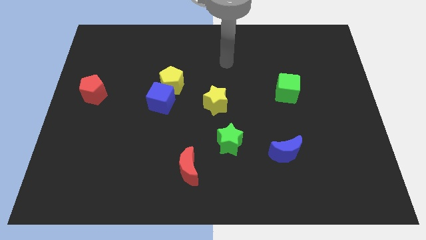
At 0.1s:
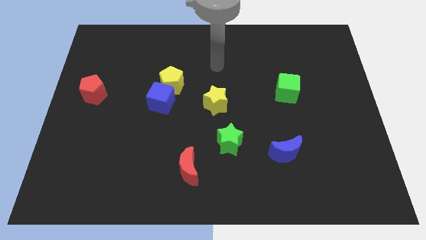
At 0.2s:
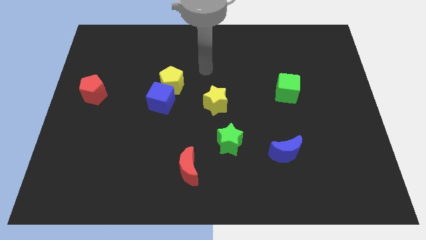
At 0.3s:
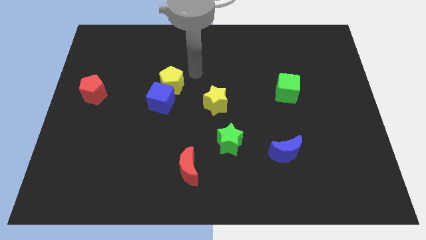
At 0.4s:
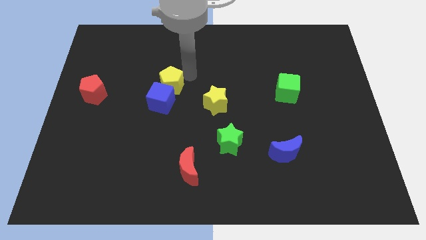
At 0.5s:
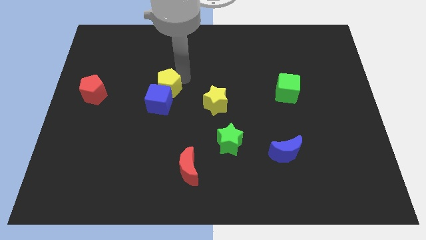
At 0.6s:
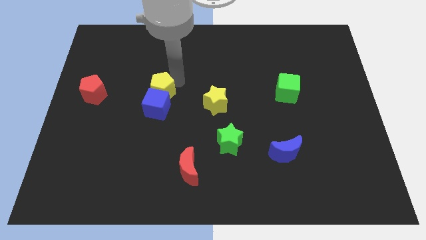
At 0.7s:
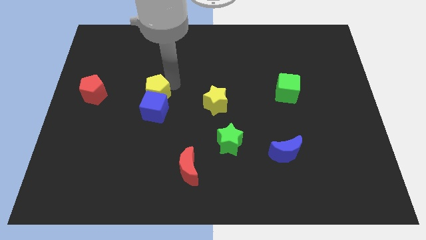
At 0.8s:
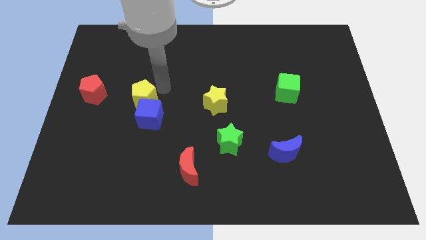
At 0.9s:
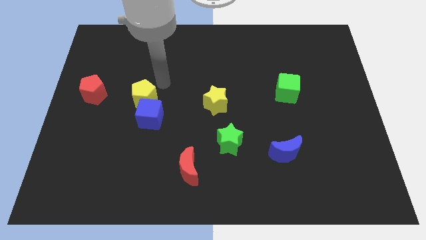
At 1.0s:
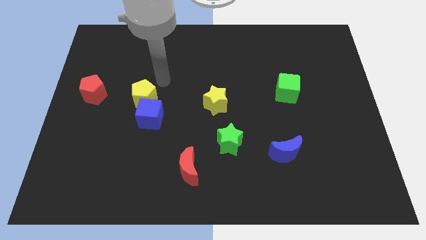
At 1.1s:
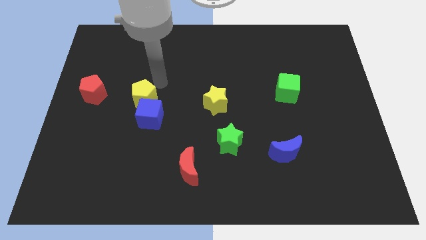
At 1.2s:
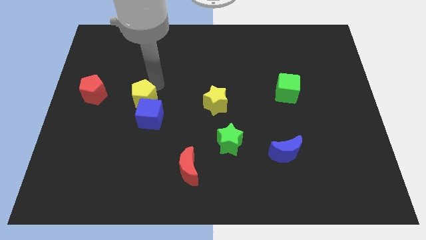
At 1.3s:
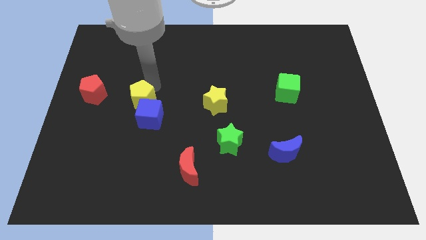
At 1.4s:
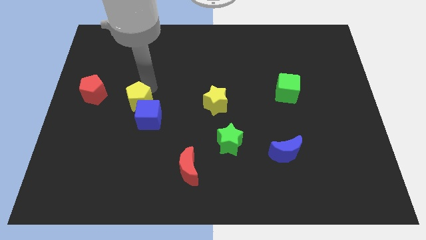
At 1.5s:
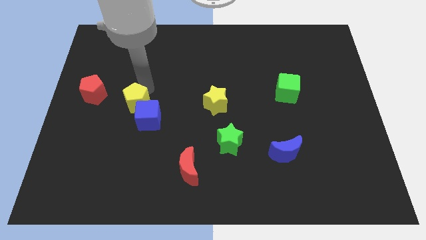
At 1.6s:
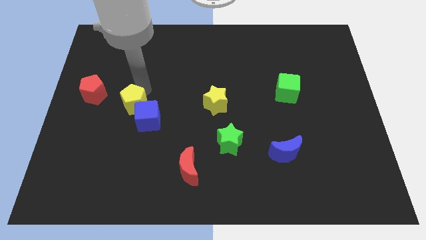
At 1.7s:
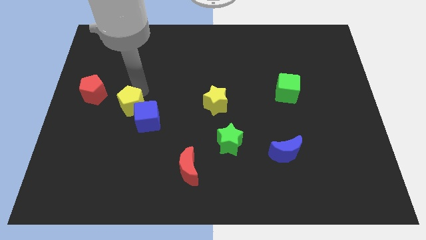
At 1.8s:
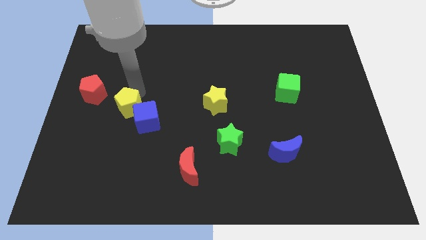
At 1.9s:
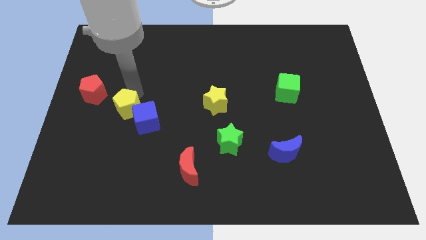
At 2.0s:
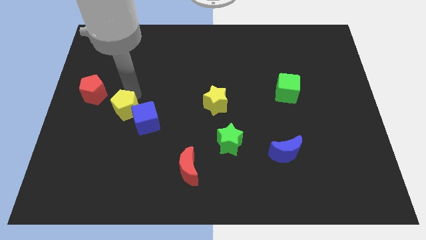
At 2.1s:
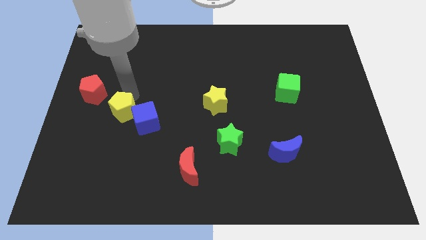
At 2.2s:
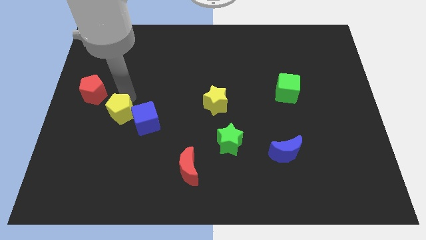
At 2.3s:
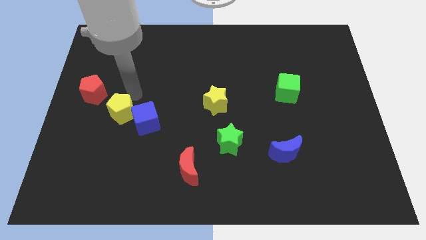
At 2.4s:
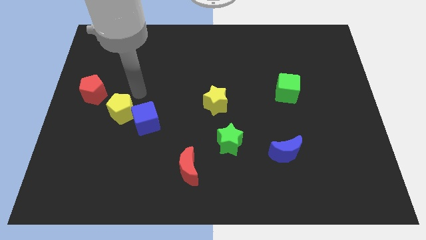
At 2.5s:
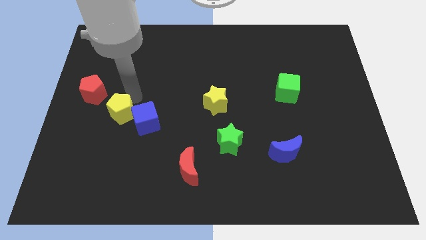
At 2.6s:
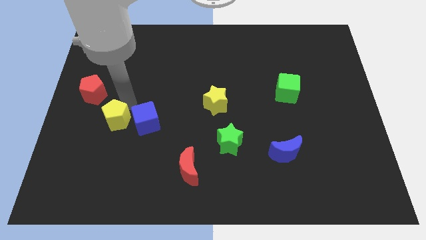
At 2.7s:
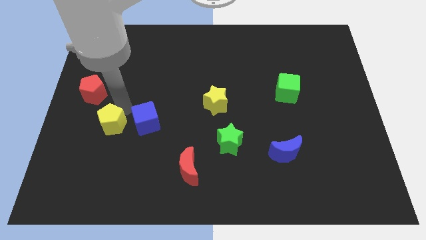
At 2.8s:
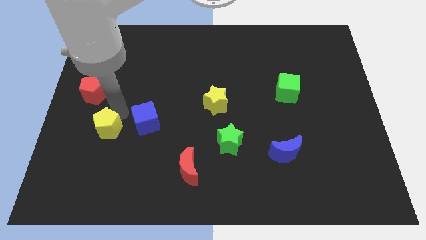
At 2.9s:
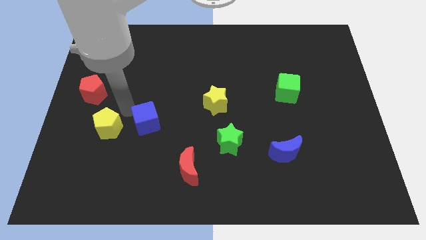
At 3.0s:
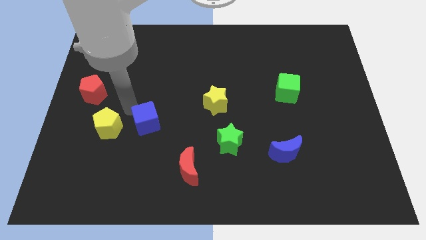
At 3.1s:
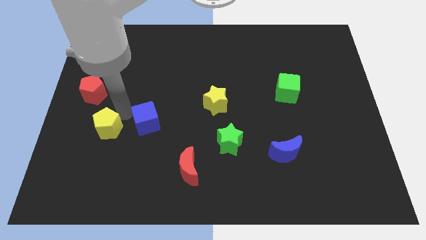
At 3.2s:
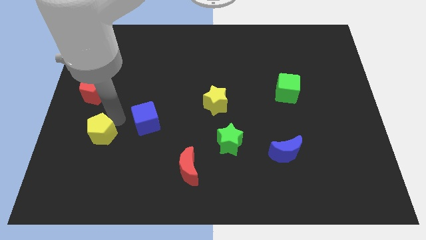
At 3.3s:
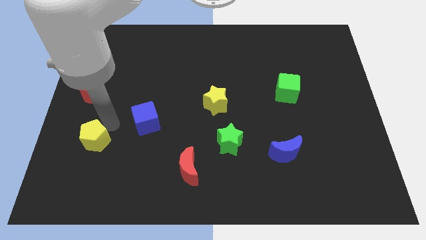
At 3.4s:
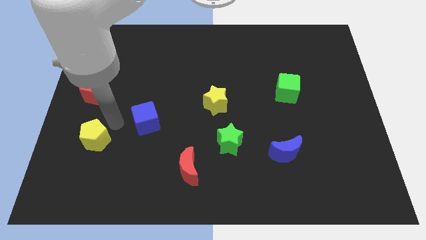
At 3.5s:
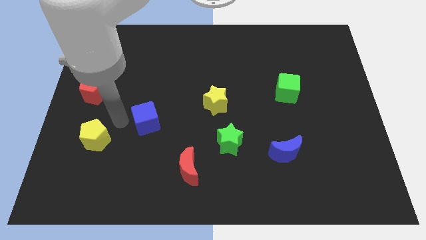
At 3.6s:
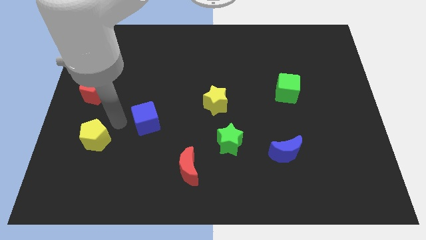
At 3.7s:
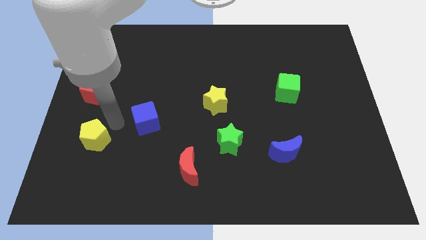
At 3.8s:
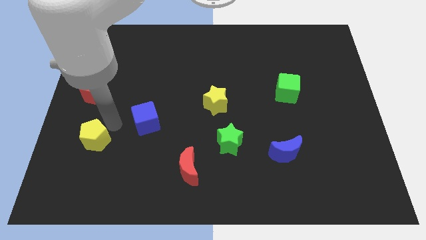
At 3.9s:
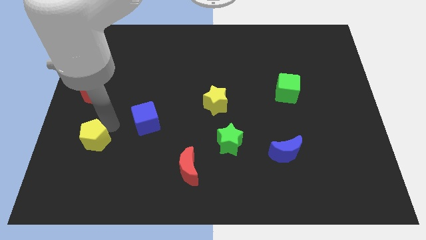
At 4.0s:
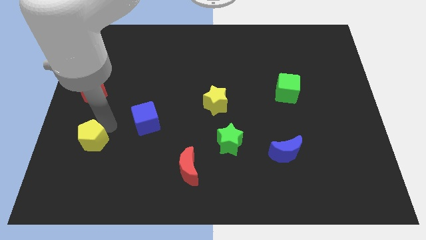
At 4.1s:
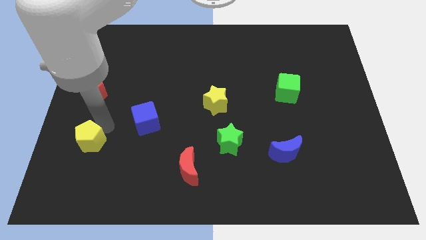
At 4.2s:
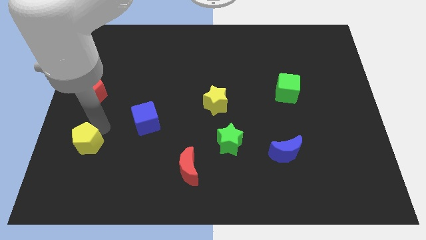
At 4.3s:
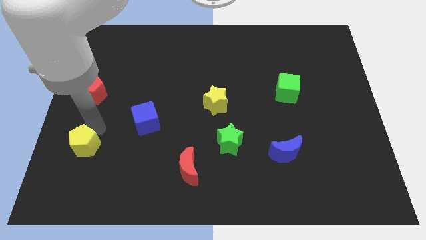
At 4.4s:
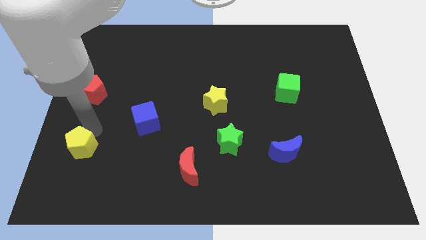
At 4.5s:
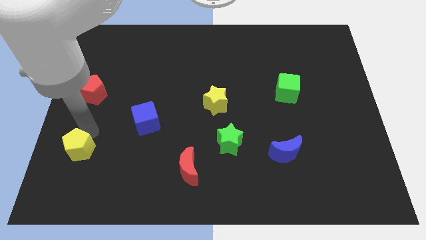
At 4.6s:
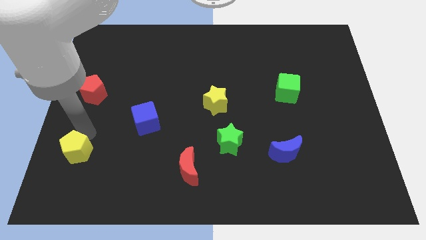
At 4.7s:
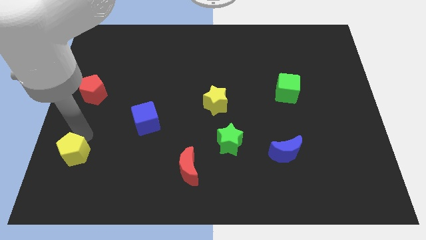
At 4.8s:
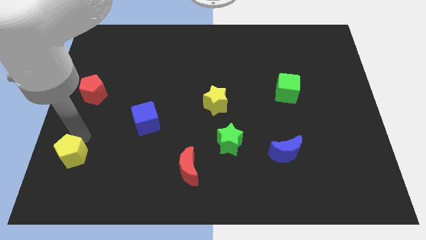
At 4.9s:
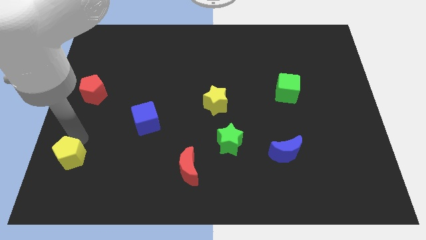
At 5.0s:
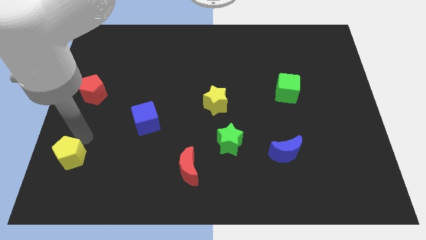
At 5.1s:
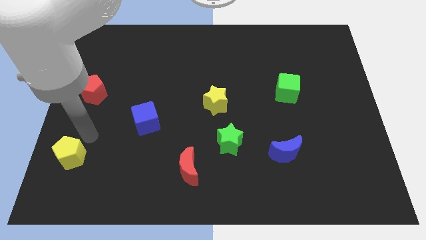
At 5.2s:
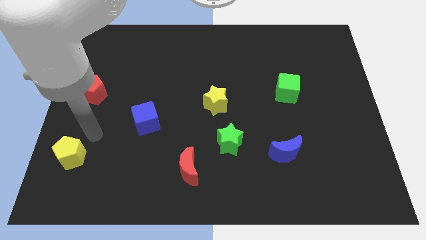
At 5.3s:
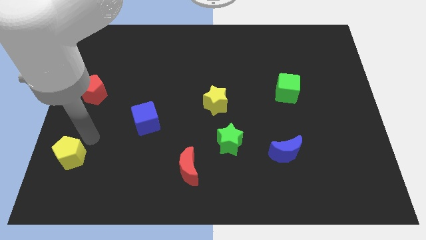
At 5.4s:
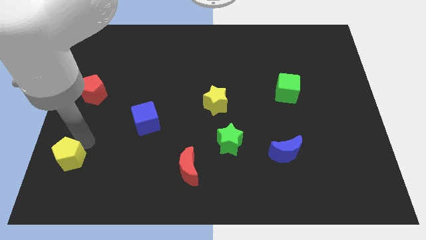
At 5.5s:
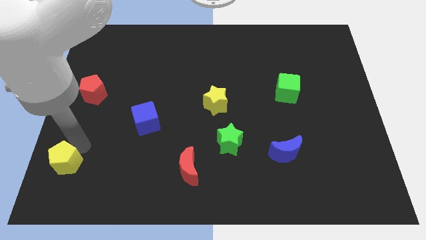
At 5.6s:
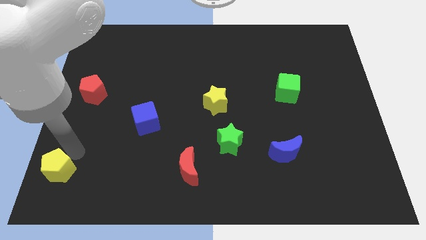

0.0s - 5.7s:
put the yellow pentagon to the bottom left corner
